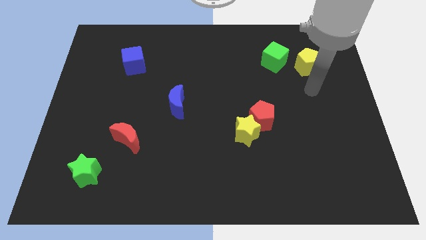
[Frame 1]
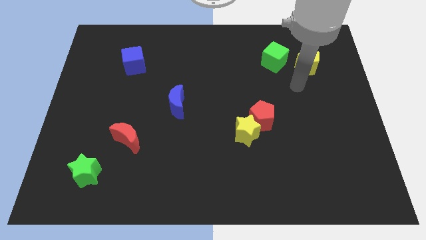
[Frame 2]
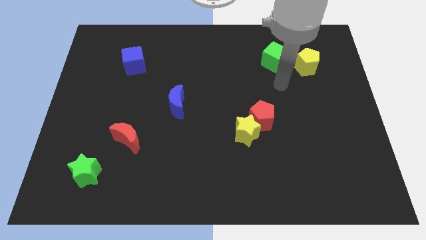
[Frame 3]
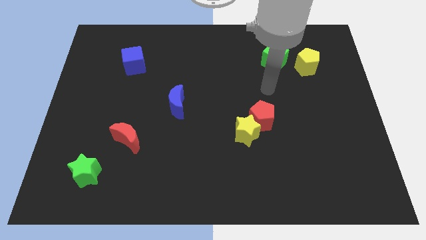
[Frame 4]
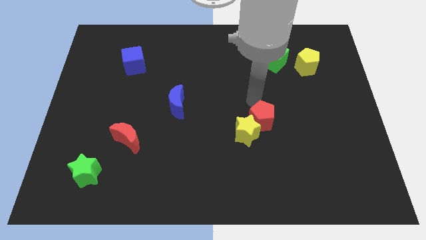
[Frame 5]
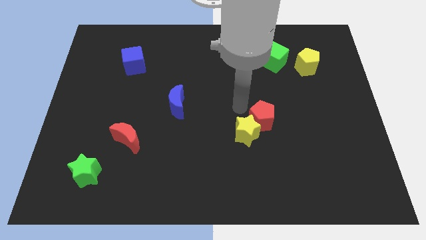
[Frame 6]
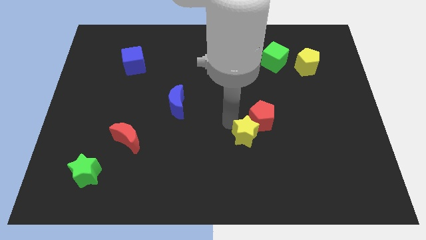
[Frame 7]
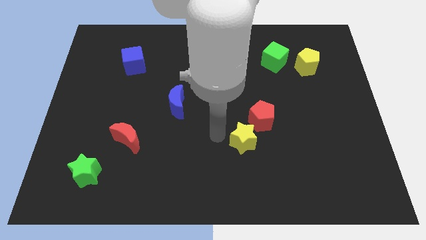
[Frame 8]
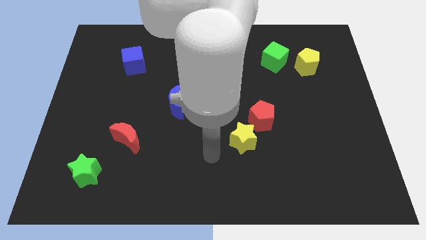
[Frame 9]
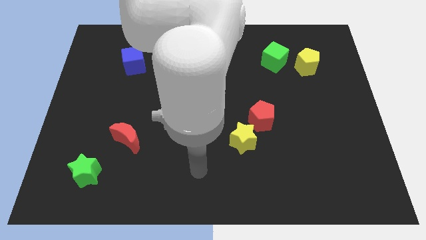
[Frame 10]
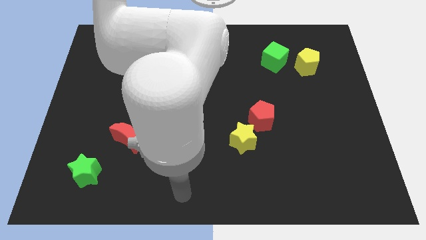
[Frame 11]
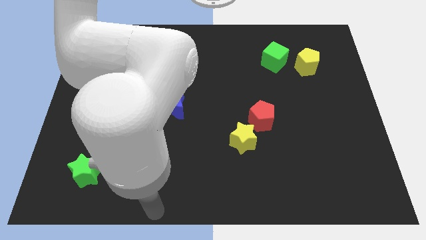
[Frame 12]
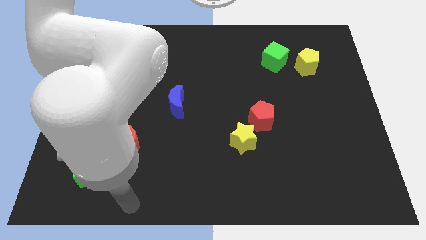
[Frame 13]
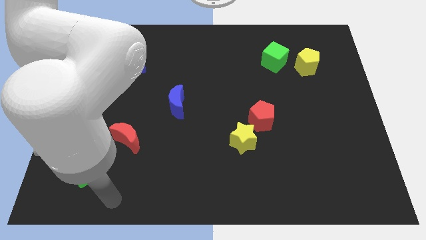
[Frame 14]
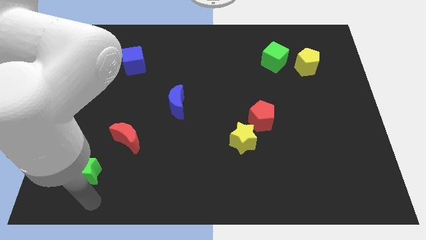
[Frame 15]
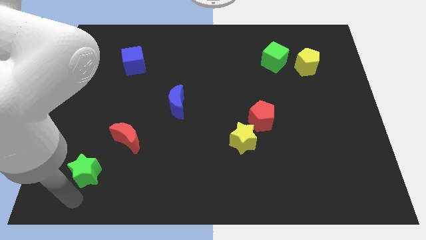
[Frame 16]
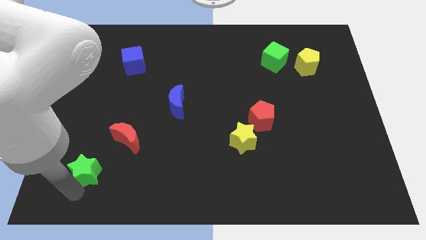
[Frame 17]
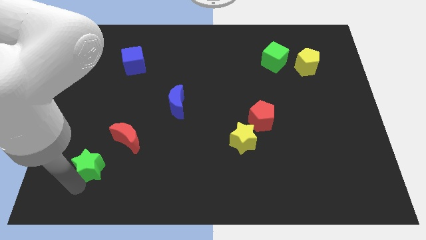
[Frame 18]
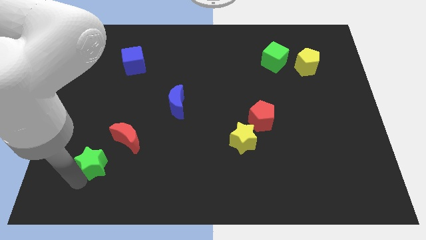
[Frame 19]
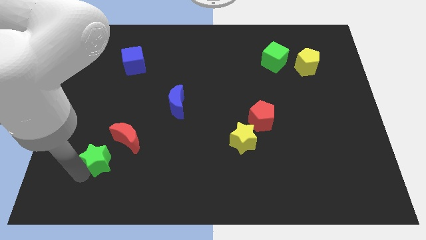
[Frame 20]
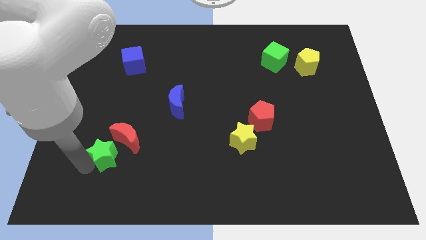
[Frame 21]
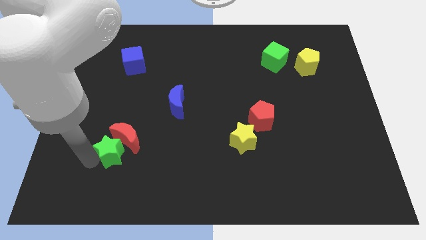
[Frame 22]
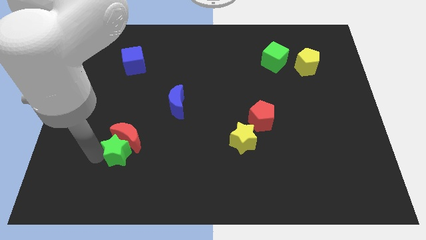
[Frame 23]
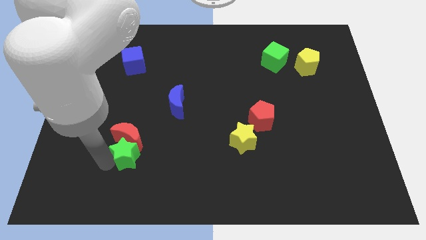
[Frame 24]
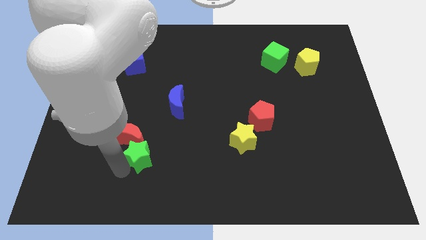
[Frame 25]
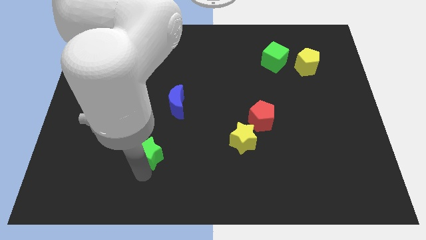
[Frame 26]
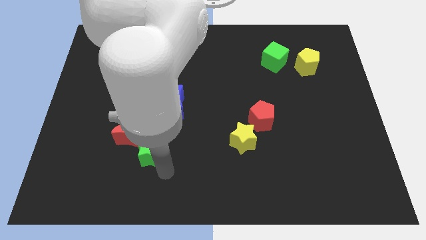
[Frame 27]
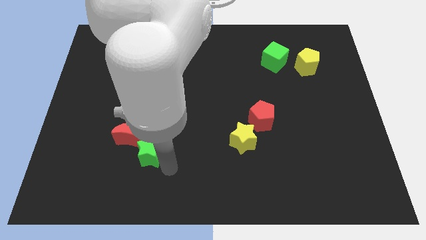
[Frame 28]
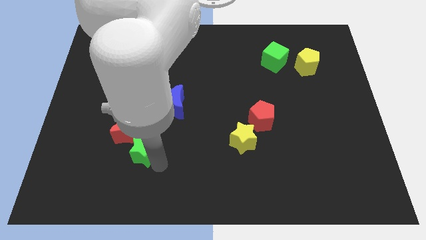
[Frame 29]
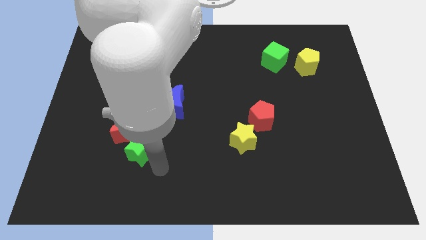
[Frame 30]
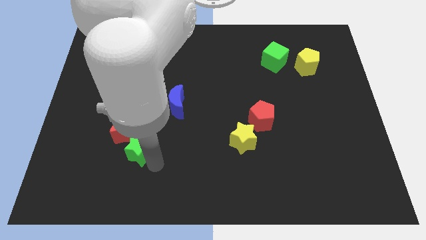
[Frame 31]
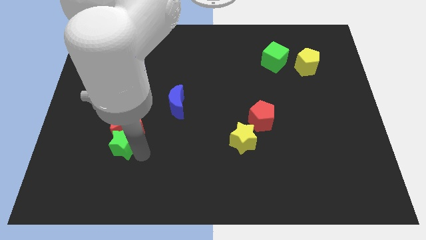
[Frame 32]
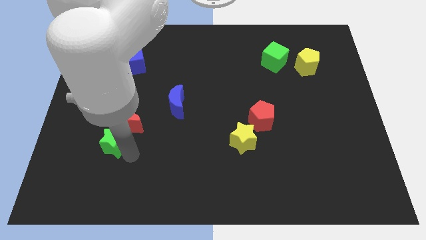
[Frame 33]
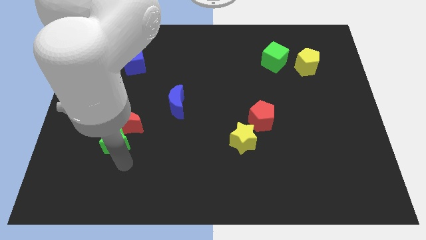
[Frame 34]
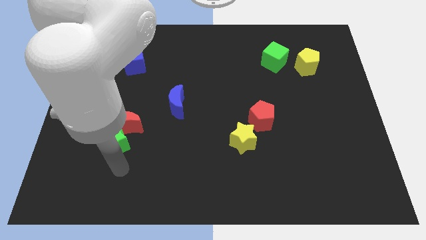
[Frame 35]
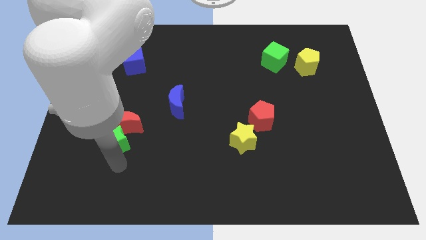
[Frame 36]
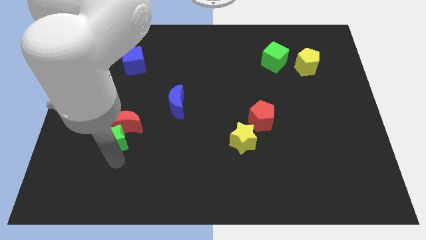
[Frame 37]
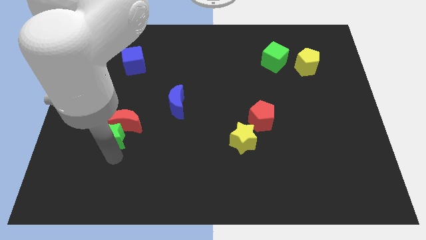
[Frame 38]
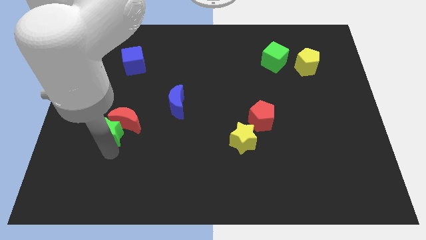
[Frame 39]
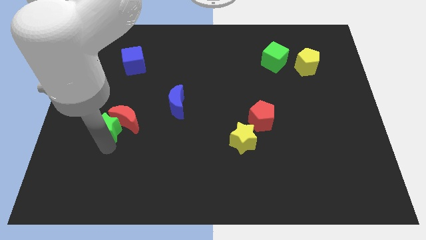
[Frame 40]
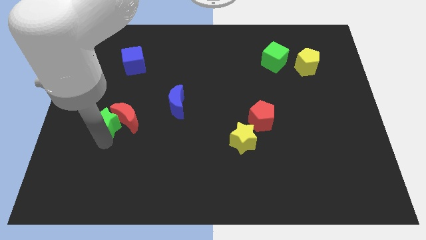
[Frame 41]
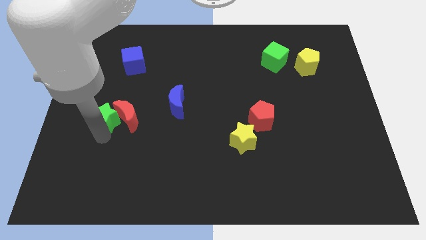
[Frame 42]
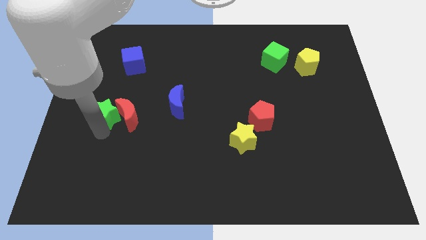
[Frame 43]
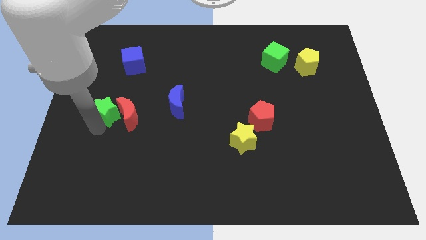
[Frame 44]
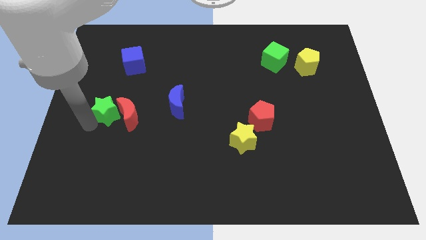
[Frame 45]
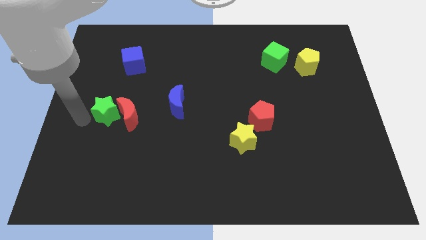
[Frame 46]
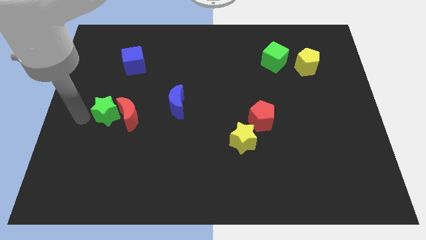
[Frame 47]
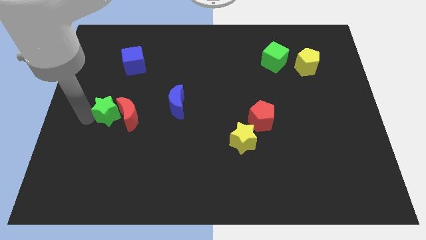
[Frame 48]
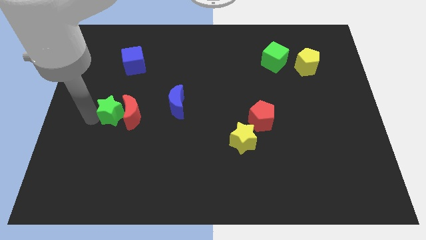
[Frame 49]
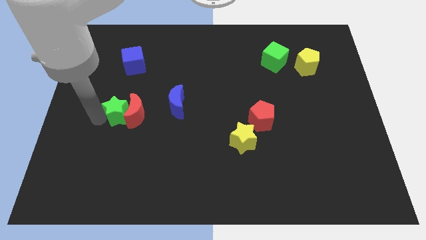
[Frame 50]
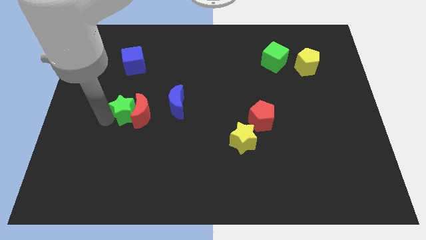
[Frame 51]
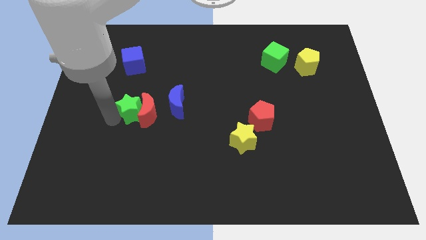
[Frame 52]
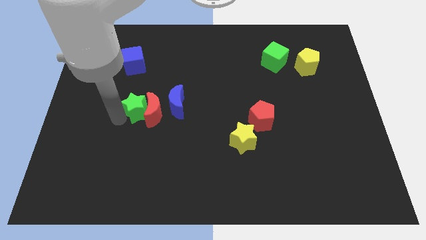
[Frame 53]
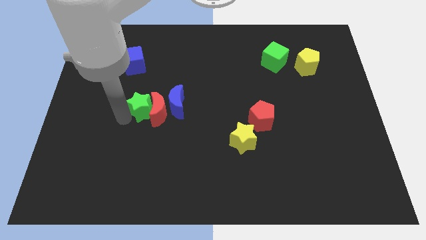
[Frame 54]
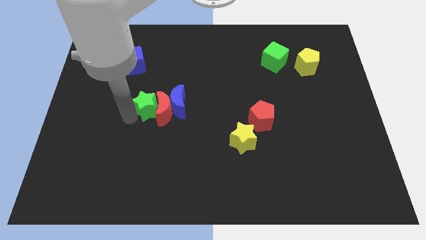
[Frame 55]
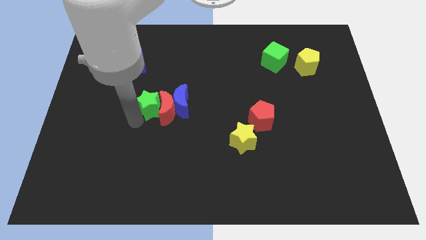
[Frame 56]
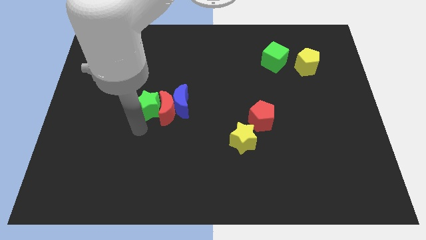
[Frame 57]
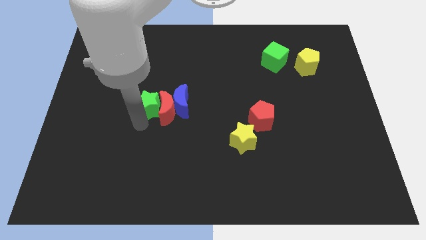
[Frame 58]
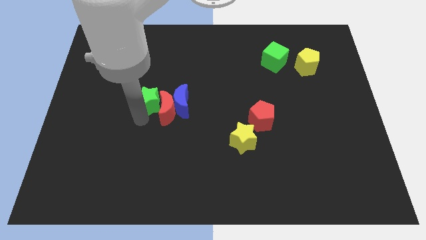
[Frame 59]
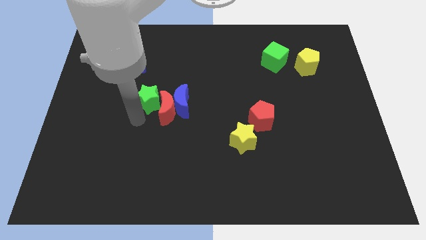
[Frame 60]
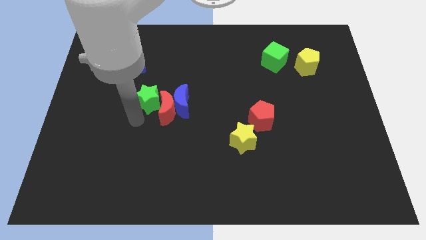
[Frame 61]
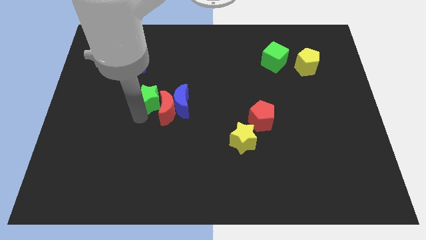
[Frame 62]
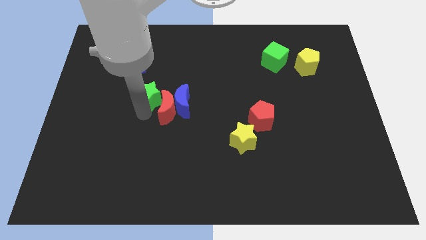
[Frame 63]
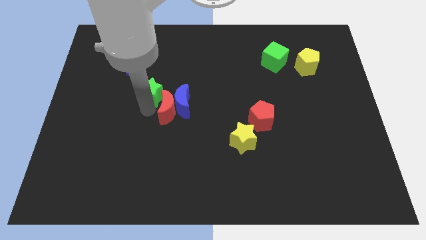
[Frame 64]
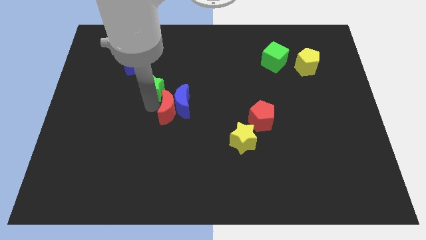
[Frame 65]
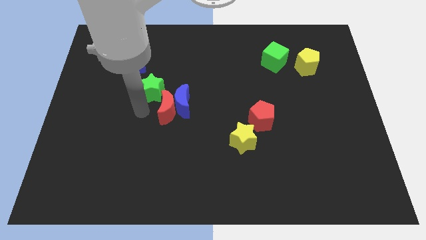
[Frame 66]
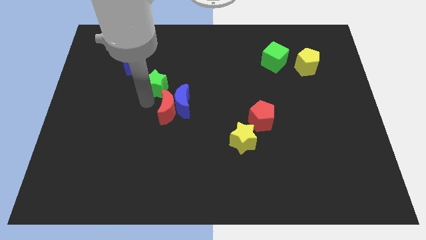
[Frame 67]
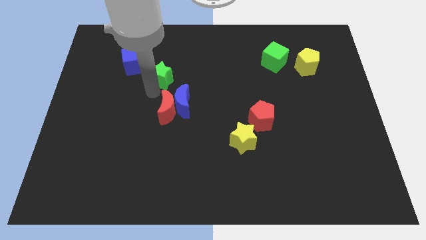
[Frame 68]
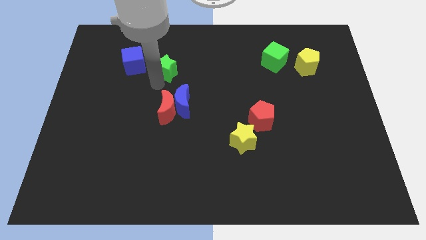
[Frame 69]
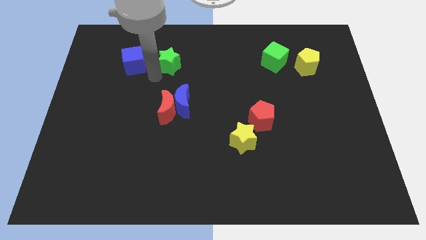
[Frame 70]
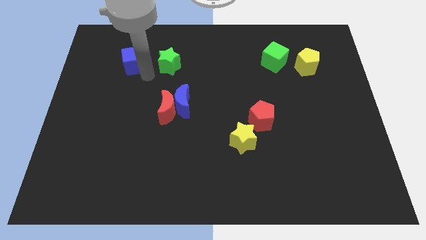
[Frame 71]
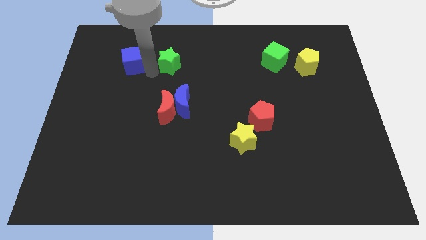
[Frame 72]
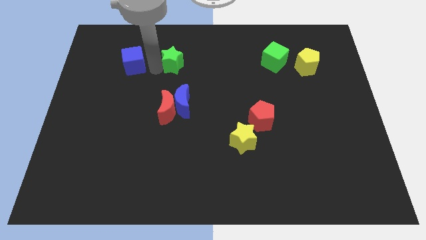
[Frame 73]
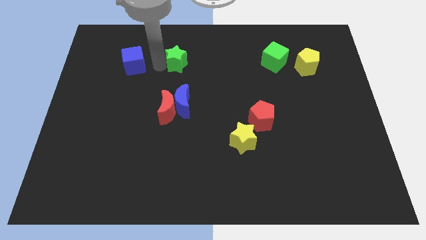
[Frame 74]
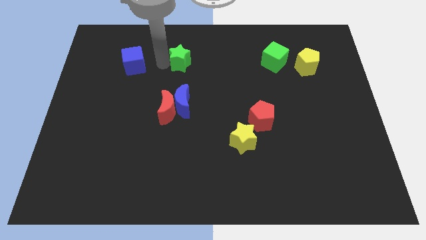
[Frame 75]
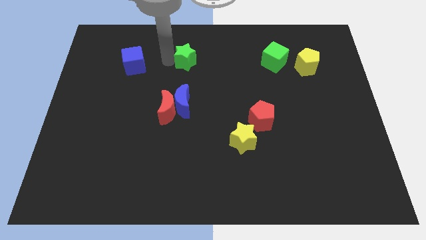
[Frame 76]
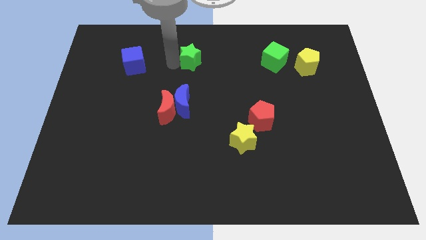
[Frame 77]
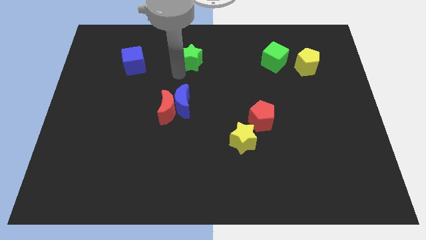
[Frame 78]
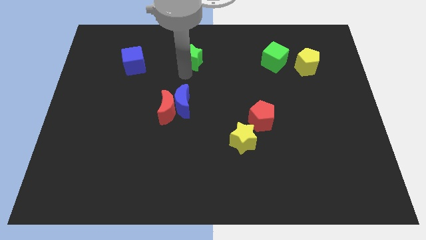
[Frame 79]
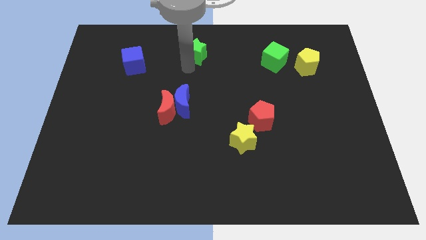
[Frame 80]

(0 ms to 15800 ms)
put the green star to the towards your base
